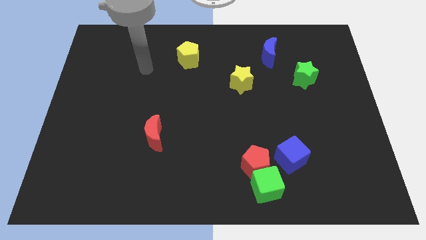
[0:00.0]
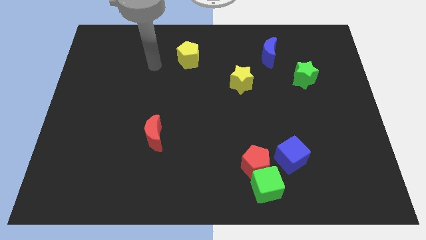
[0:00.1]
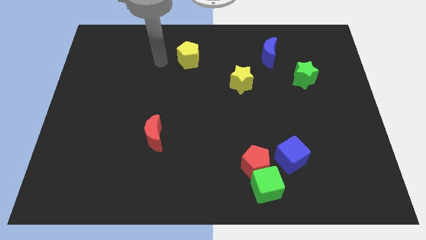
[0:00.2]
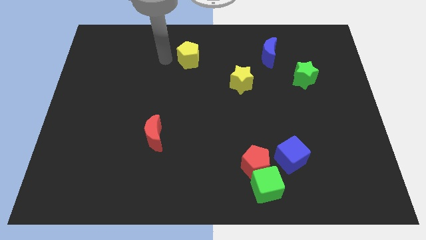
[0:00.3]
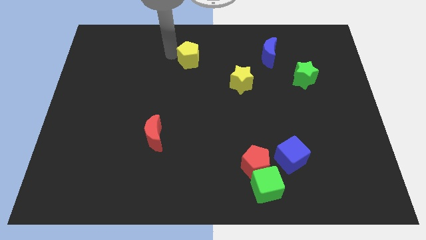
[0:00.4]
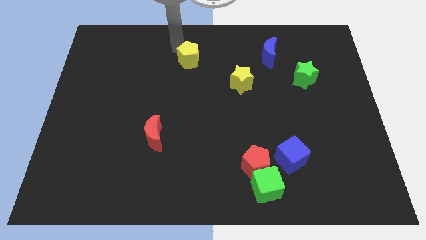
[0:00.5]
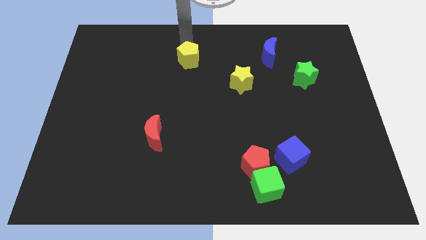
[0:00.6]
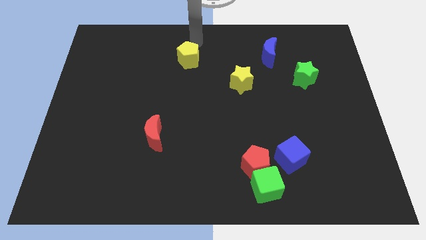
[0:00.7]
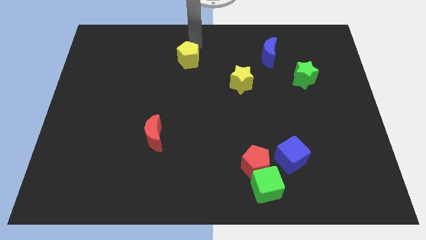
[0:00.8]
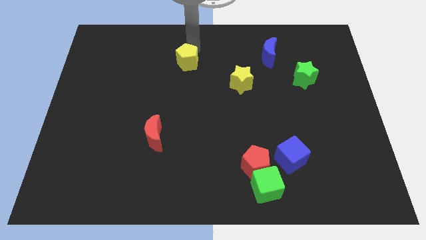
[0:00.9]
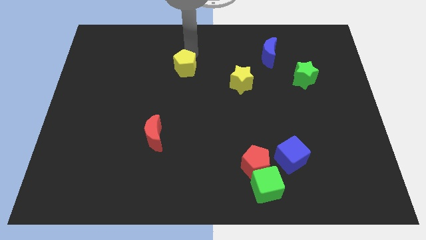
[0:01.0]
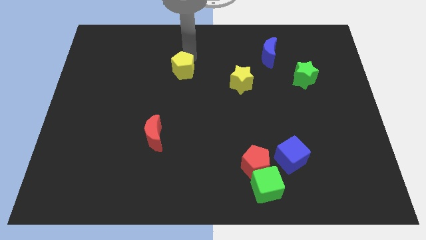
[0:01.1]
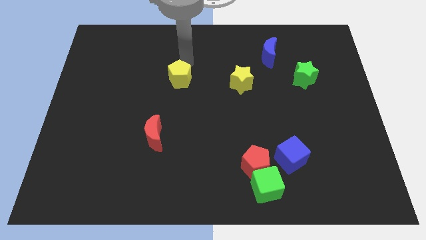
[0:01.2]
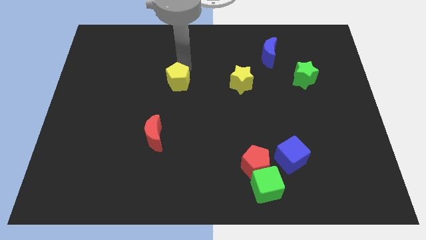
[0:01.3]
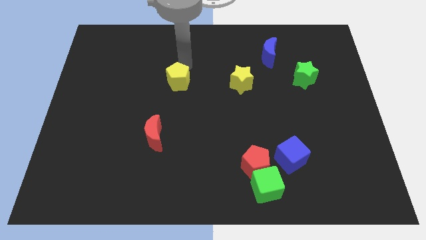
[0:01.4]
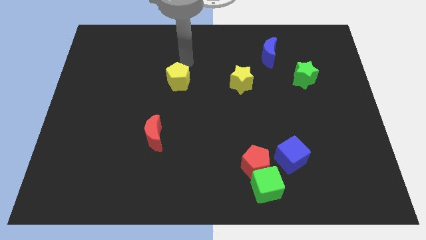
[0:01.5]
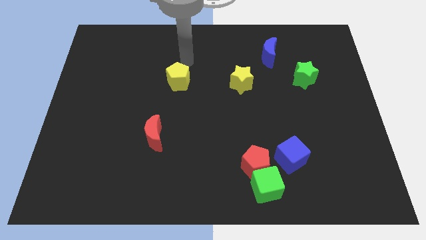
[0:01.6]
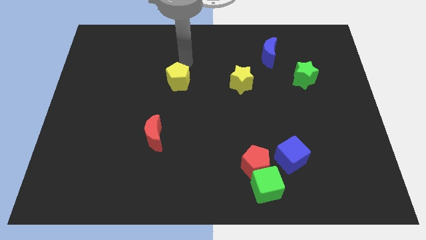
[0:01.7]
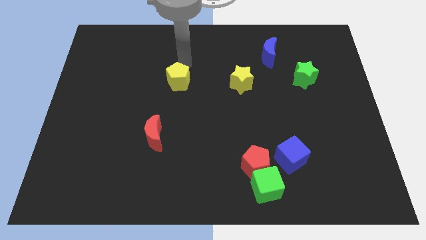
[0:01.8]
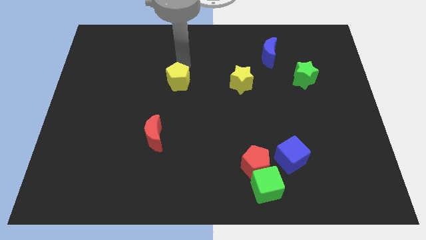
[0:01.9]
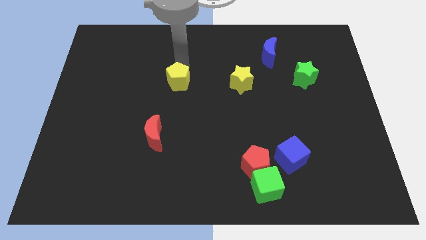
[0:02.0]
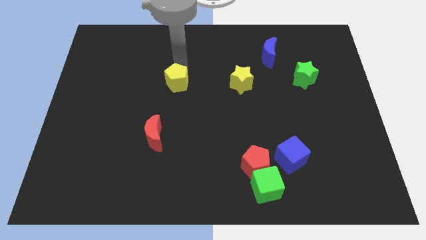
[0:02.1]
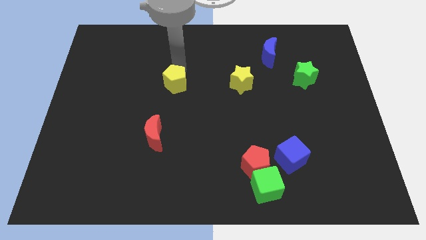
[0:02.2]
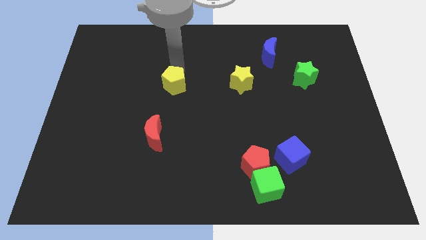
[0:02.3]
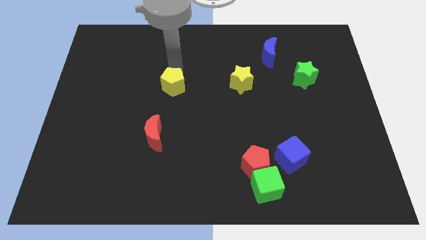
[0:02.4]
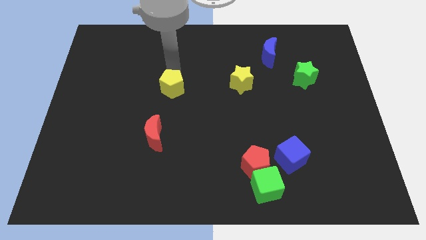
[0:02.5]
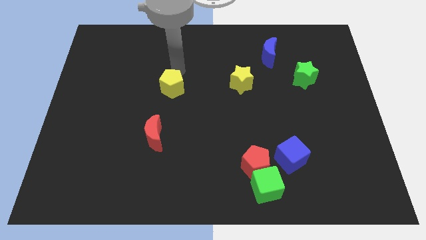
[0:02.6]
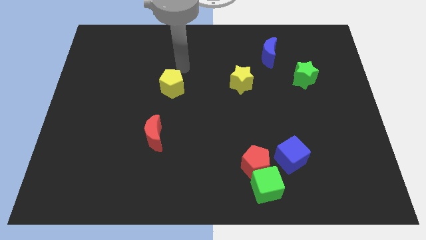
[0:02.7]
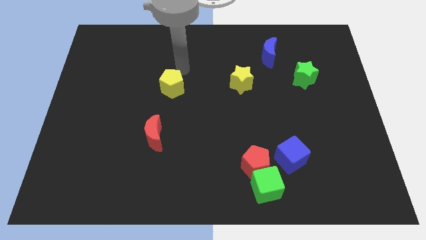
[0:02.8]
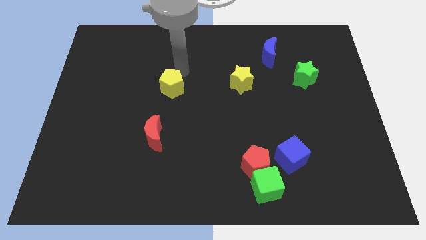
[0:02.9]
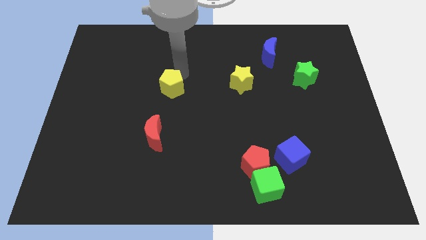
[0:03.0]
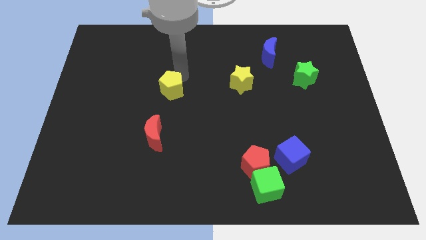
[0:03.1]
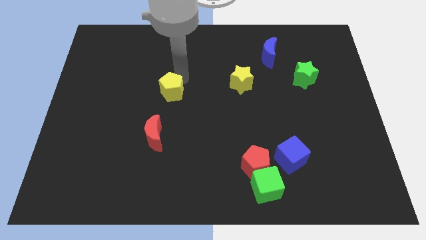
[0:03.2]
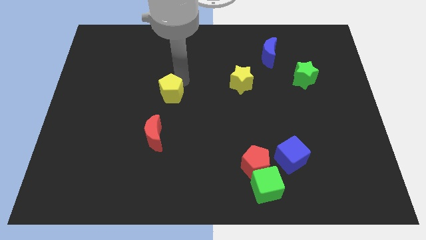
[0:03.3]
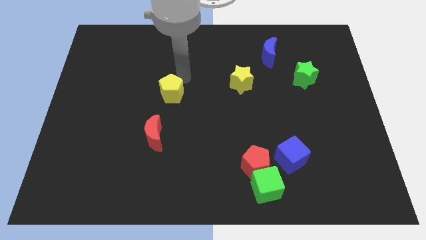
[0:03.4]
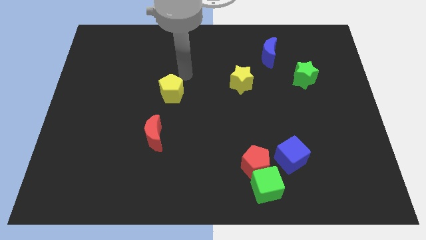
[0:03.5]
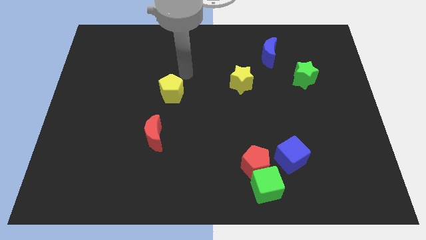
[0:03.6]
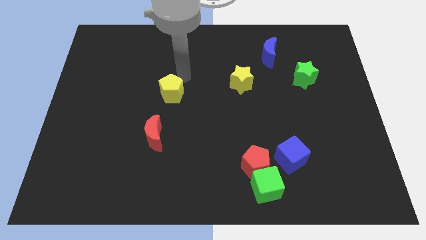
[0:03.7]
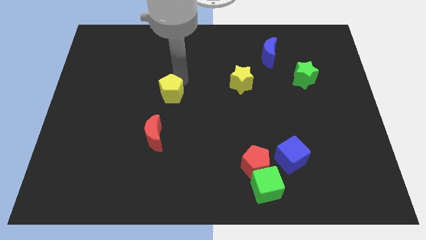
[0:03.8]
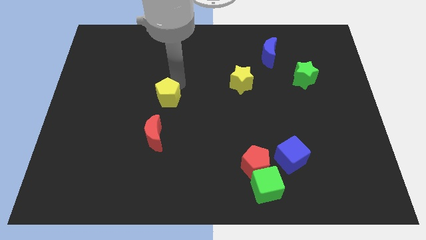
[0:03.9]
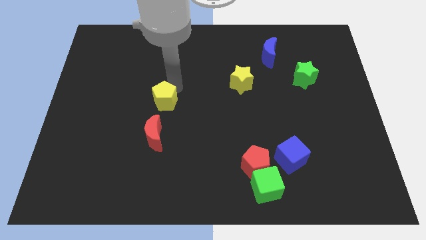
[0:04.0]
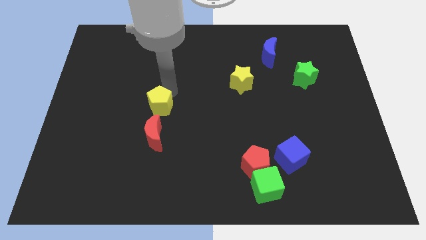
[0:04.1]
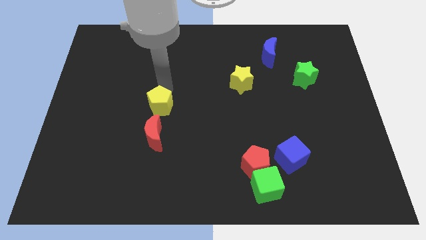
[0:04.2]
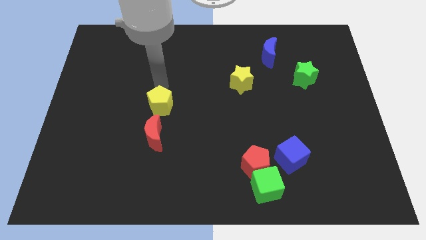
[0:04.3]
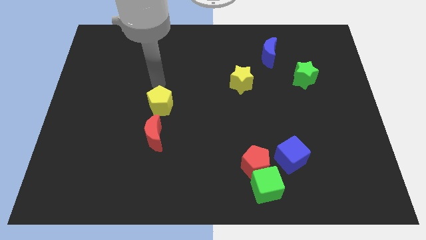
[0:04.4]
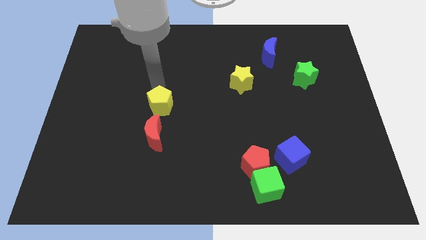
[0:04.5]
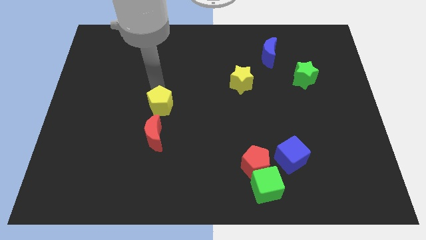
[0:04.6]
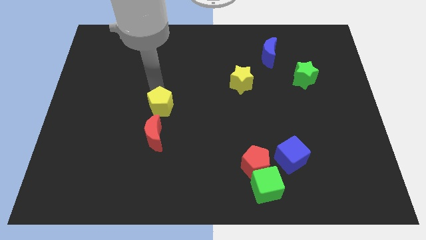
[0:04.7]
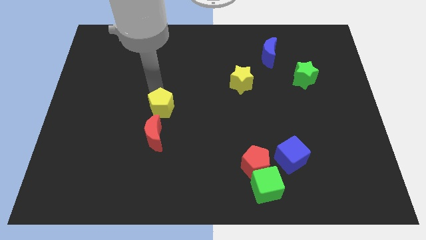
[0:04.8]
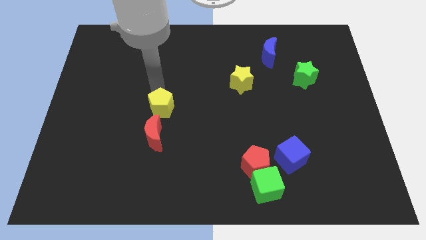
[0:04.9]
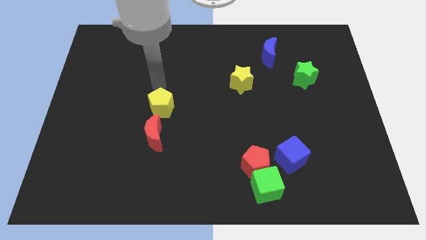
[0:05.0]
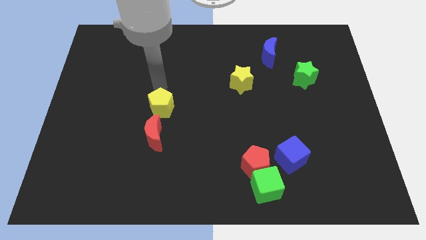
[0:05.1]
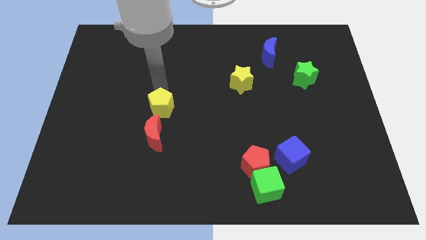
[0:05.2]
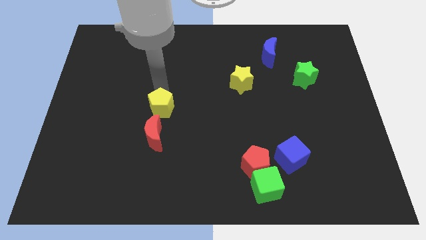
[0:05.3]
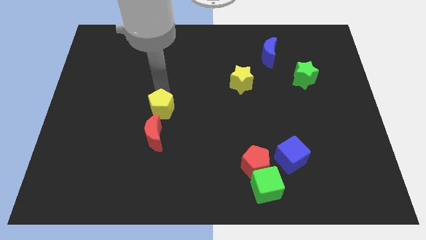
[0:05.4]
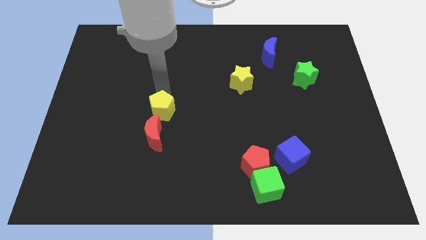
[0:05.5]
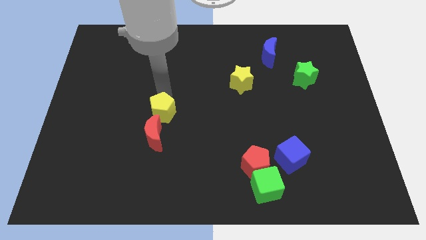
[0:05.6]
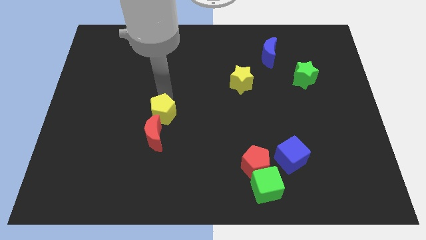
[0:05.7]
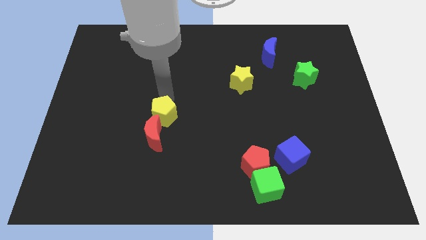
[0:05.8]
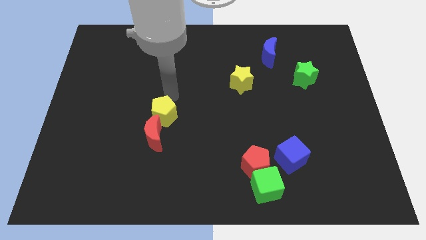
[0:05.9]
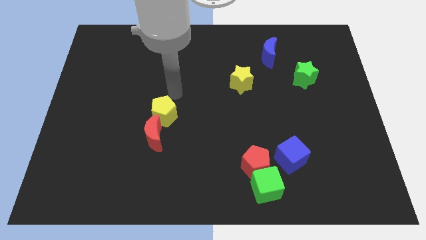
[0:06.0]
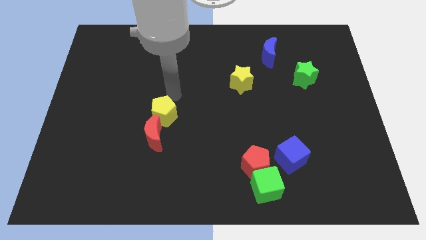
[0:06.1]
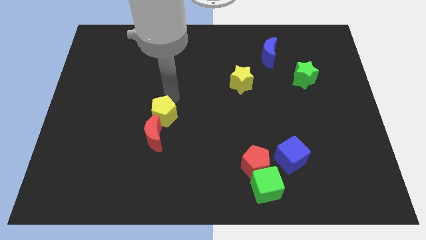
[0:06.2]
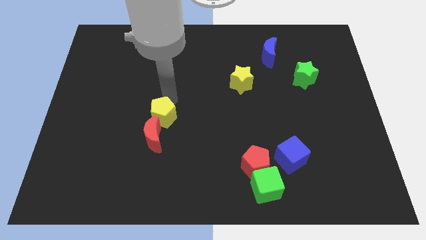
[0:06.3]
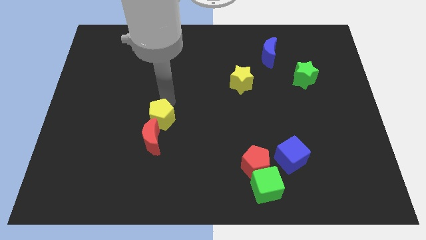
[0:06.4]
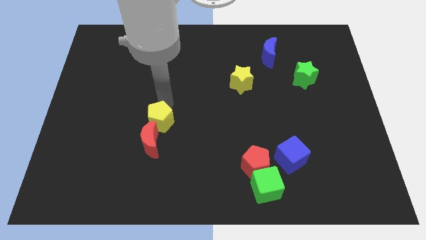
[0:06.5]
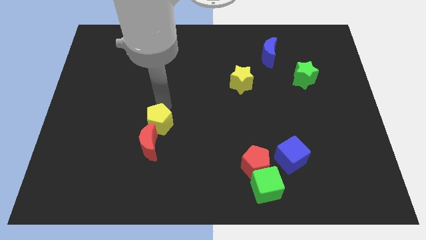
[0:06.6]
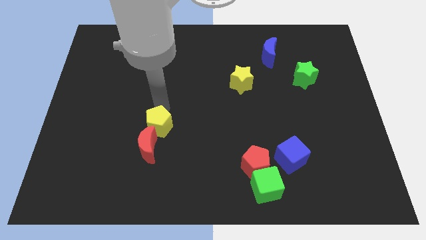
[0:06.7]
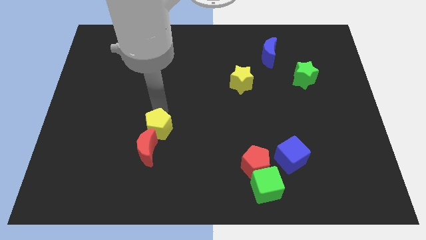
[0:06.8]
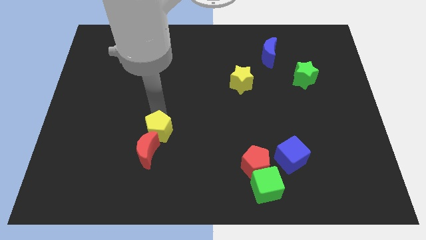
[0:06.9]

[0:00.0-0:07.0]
slide the yellow pentagon close to the red moon

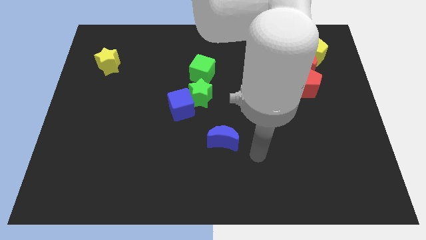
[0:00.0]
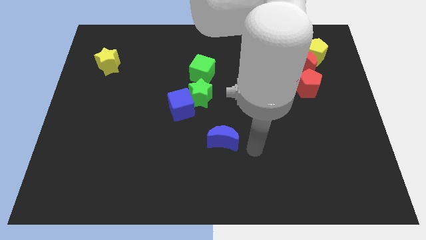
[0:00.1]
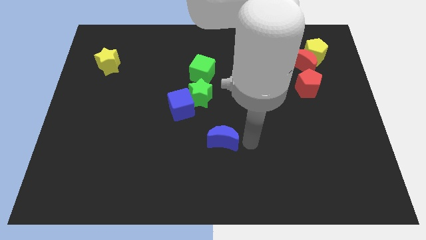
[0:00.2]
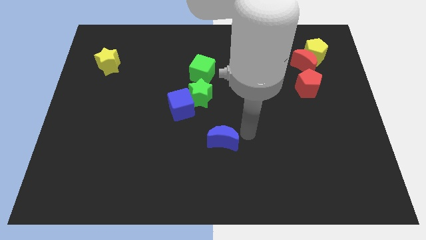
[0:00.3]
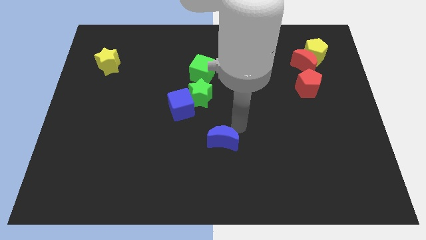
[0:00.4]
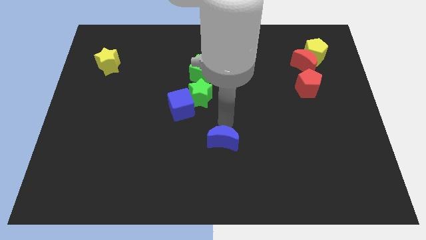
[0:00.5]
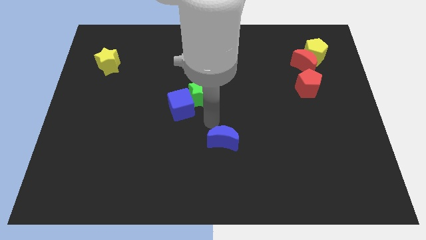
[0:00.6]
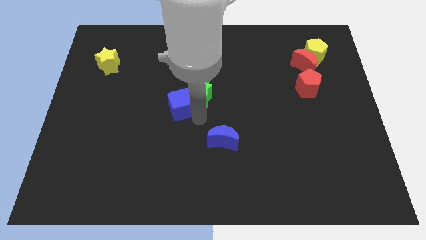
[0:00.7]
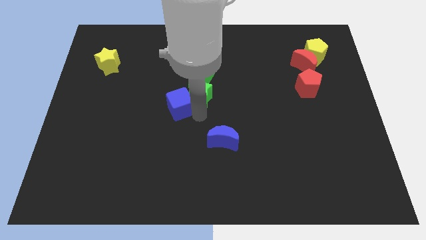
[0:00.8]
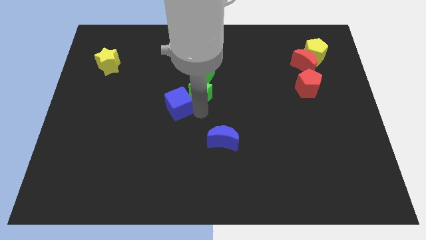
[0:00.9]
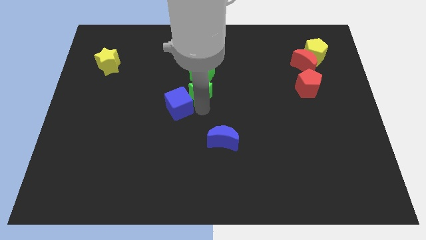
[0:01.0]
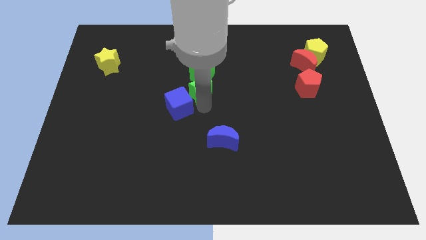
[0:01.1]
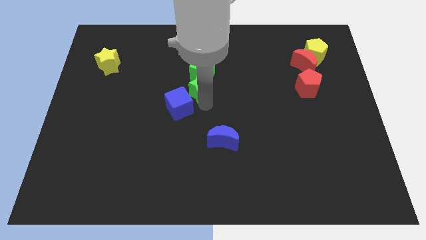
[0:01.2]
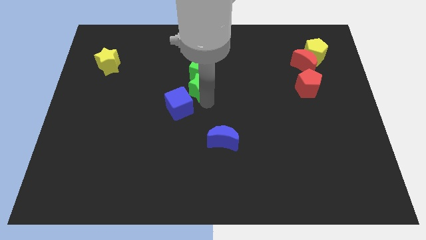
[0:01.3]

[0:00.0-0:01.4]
push the green star to the green cube
